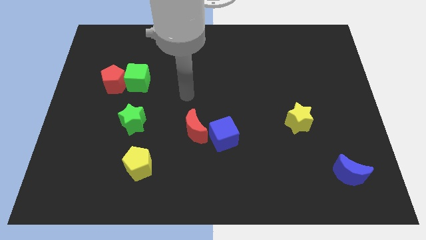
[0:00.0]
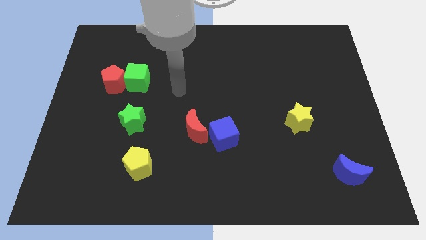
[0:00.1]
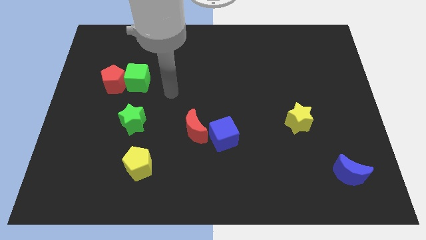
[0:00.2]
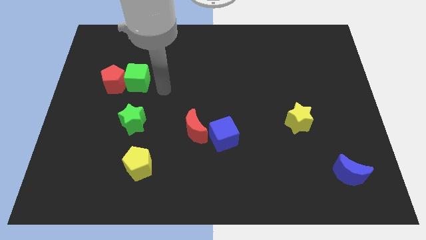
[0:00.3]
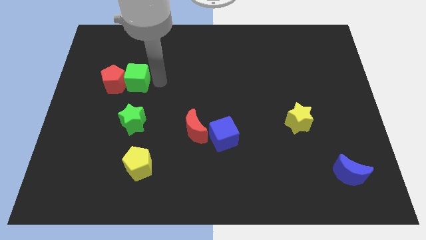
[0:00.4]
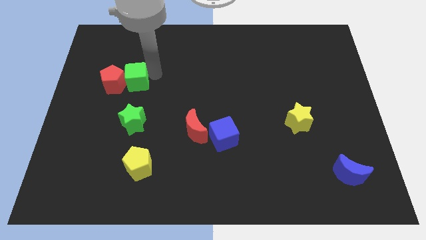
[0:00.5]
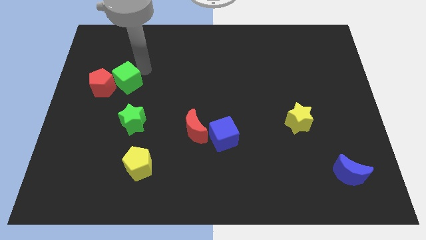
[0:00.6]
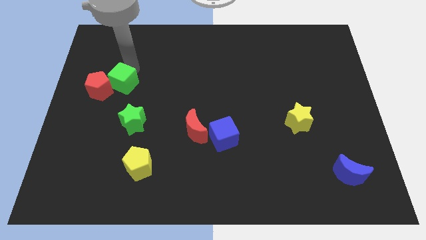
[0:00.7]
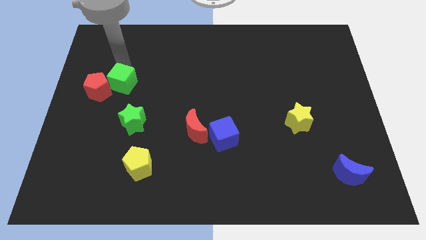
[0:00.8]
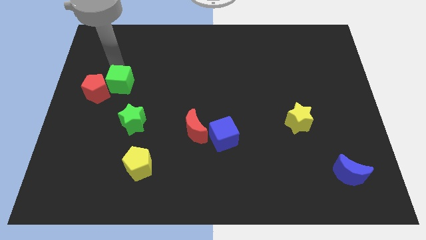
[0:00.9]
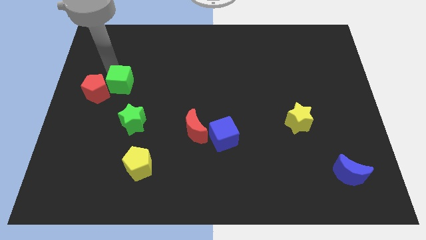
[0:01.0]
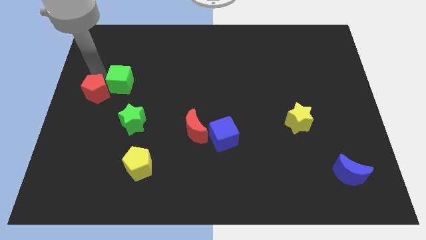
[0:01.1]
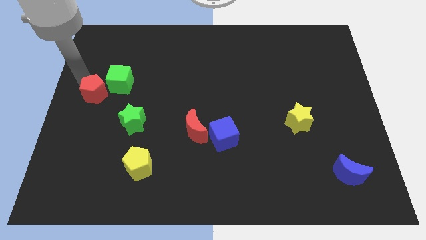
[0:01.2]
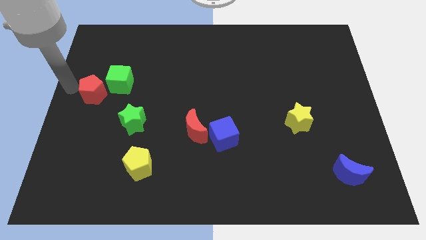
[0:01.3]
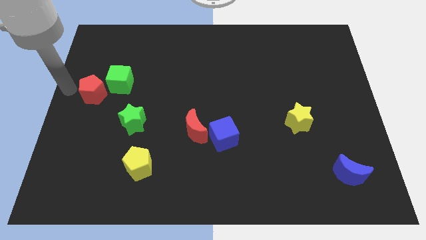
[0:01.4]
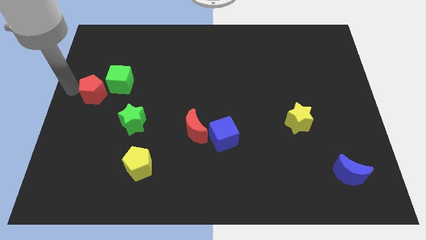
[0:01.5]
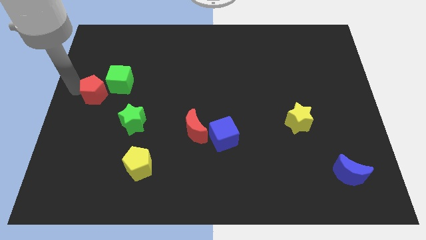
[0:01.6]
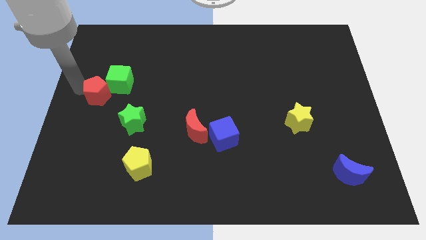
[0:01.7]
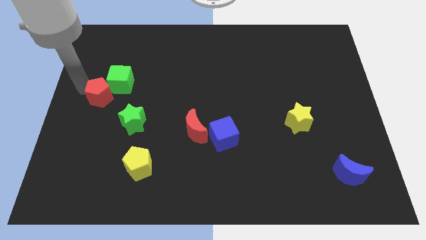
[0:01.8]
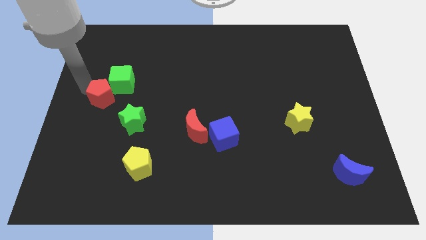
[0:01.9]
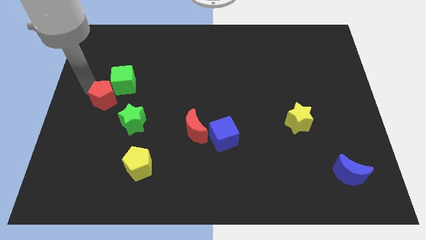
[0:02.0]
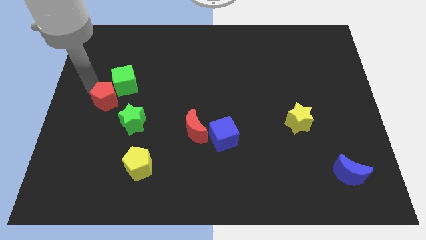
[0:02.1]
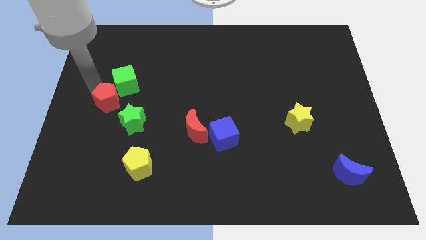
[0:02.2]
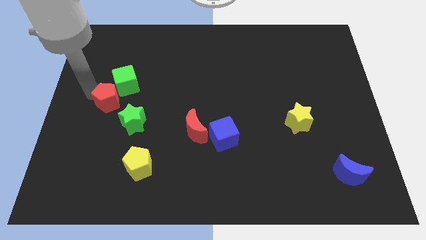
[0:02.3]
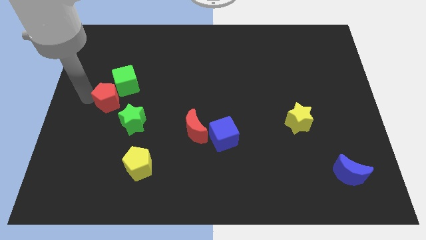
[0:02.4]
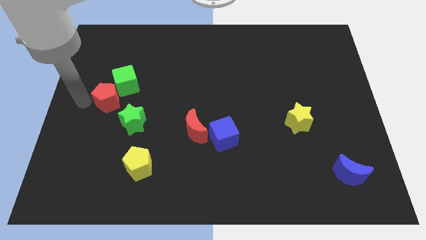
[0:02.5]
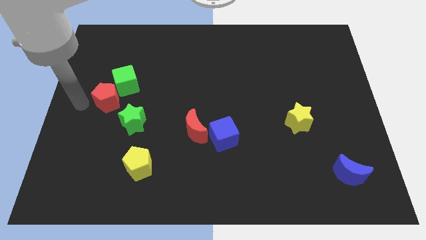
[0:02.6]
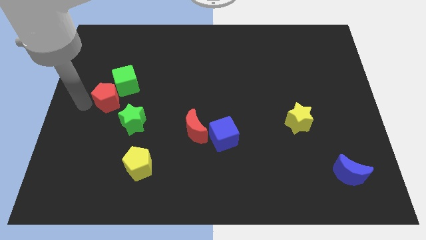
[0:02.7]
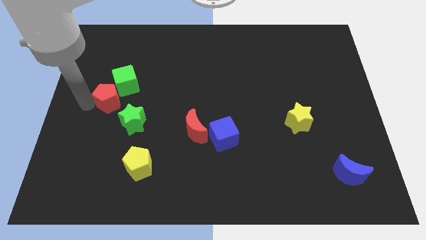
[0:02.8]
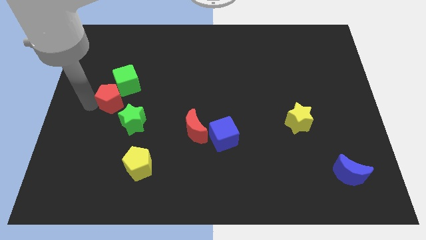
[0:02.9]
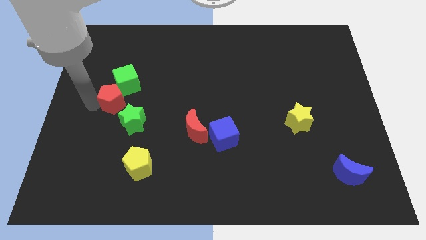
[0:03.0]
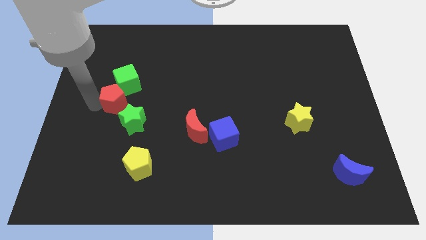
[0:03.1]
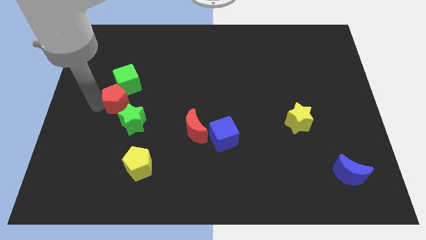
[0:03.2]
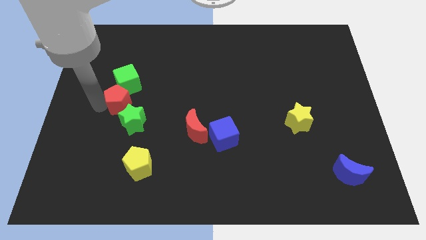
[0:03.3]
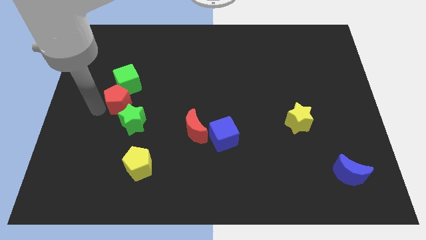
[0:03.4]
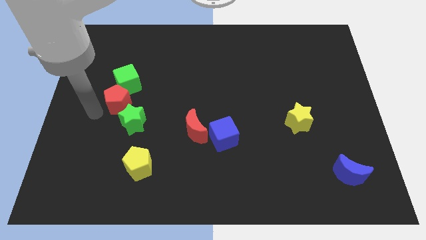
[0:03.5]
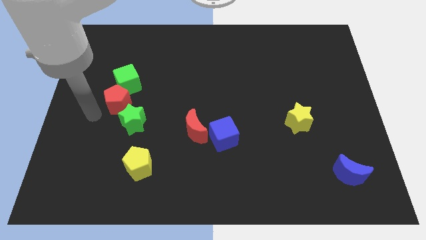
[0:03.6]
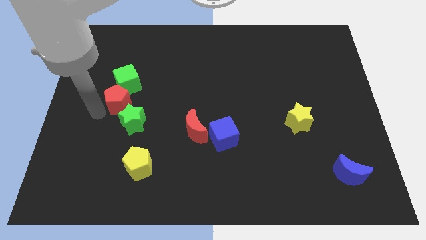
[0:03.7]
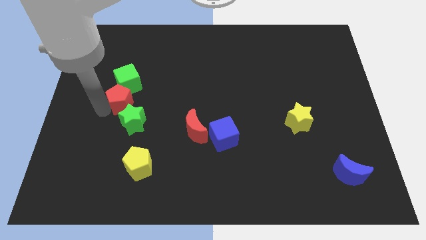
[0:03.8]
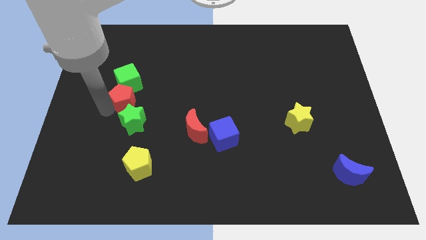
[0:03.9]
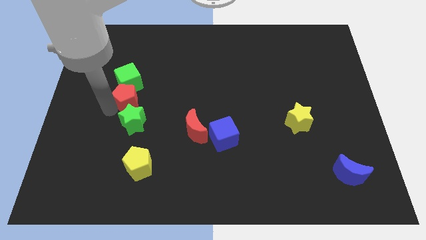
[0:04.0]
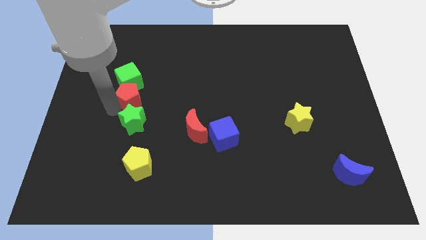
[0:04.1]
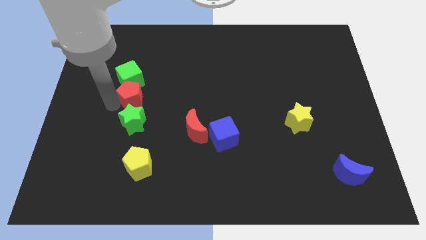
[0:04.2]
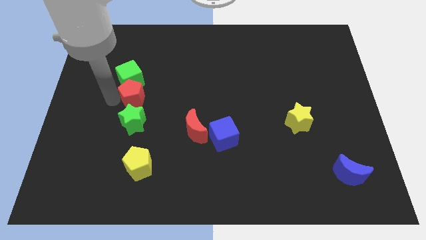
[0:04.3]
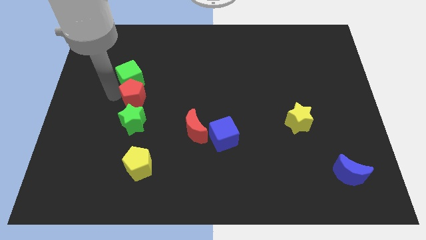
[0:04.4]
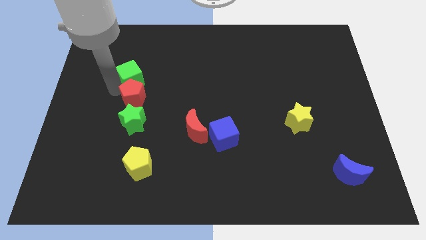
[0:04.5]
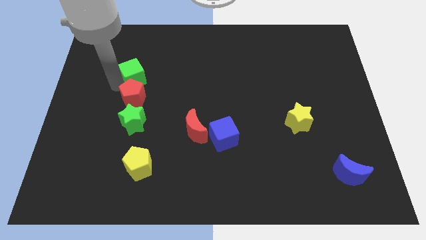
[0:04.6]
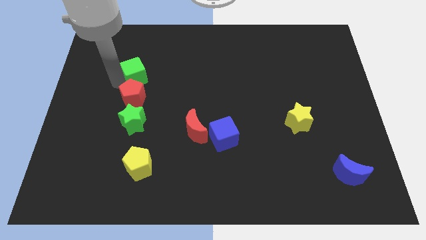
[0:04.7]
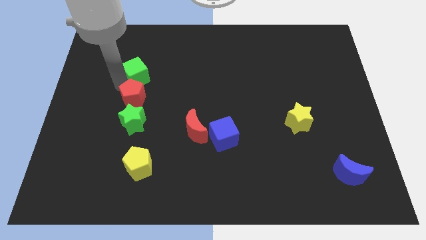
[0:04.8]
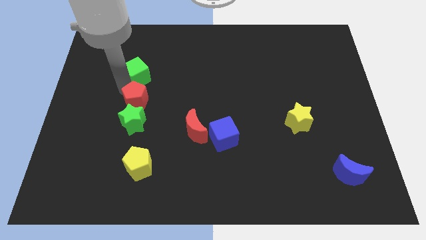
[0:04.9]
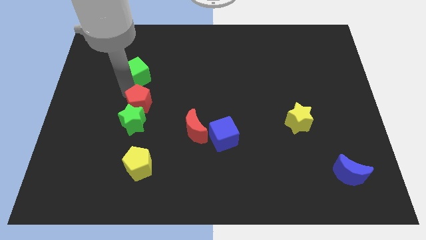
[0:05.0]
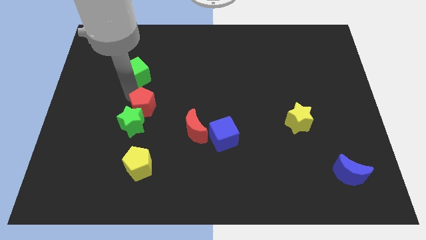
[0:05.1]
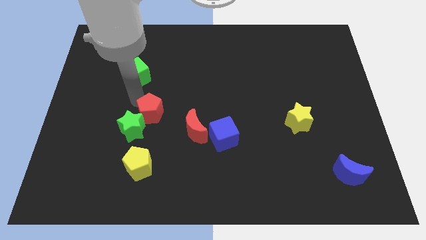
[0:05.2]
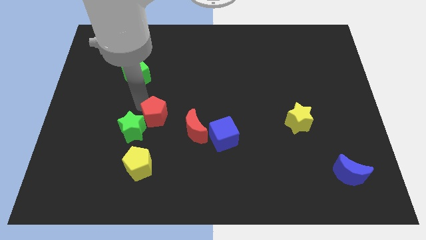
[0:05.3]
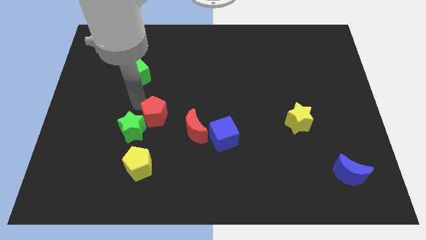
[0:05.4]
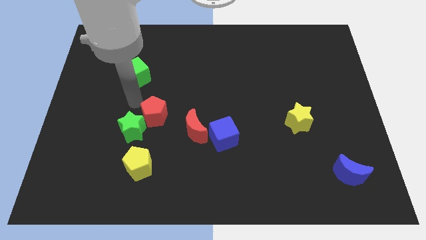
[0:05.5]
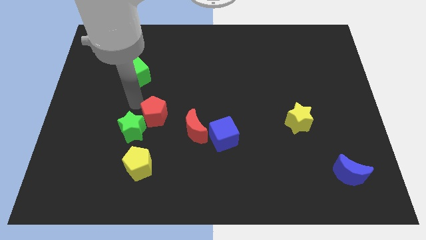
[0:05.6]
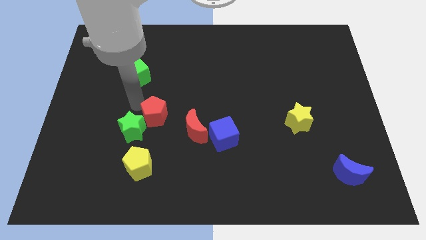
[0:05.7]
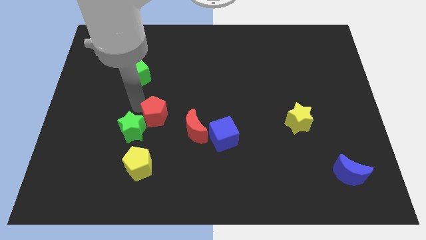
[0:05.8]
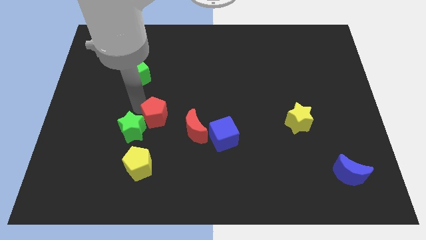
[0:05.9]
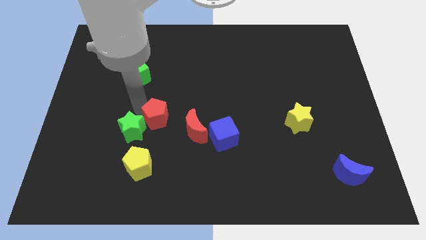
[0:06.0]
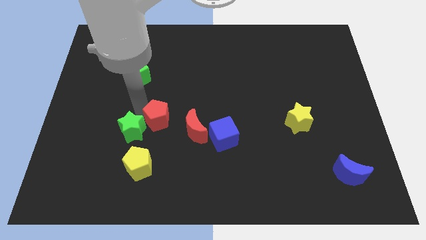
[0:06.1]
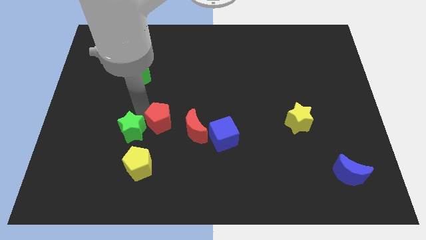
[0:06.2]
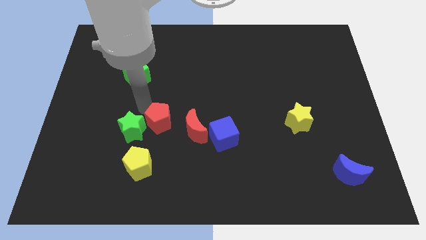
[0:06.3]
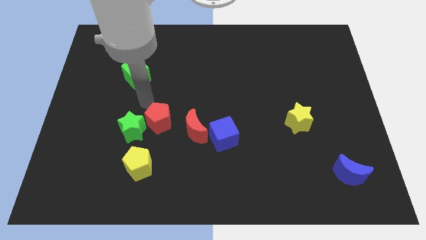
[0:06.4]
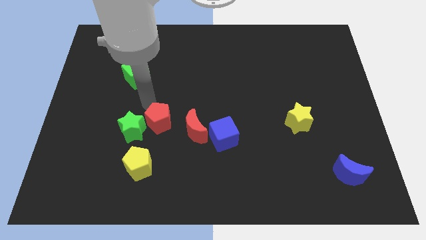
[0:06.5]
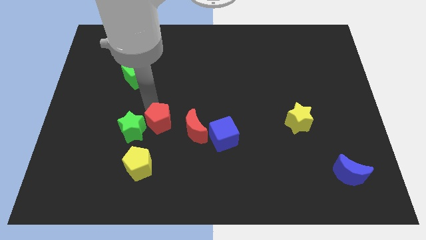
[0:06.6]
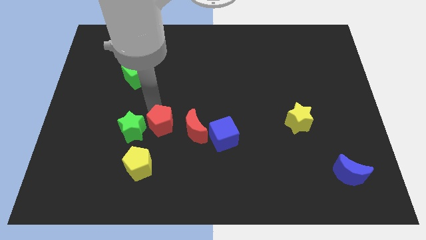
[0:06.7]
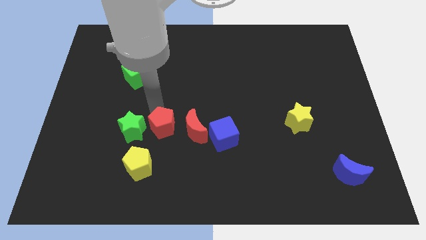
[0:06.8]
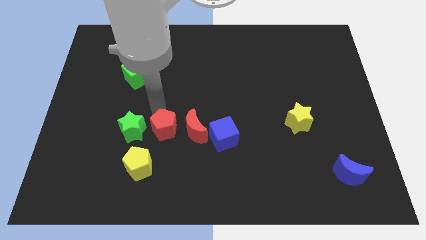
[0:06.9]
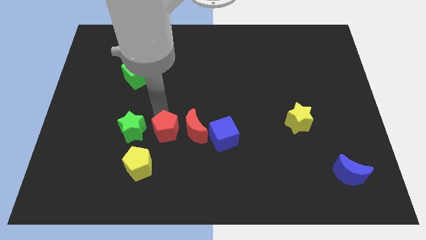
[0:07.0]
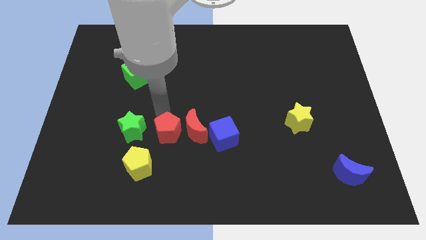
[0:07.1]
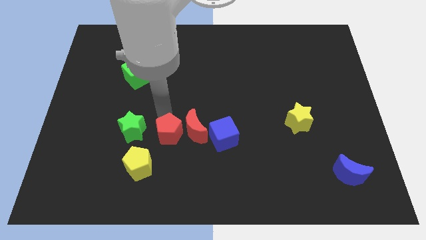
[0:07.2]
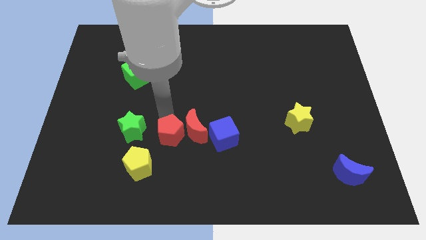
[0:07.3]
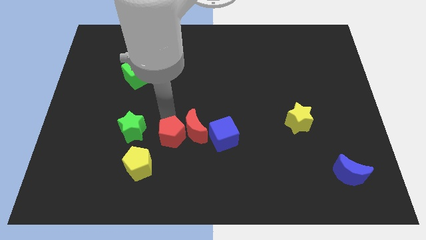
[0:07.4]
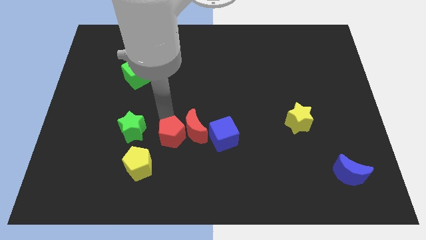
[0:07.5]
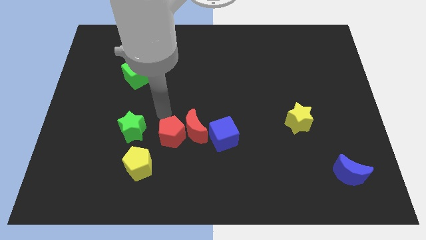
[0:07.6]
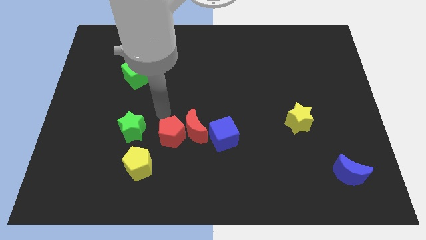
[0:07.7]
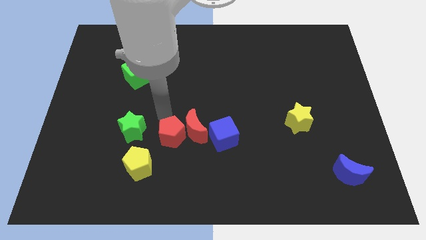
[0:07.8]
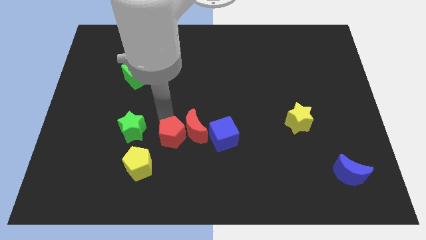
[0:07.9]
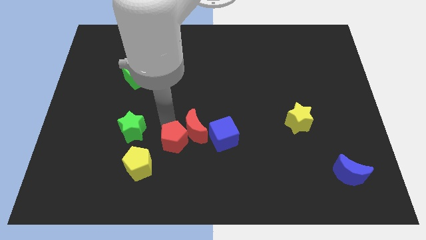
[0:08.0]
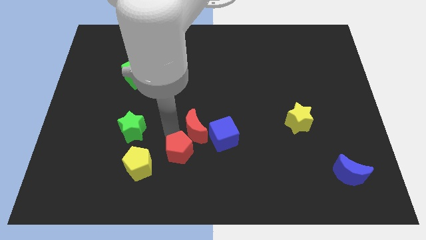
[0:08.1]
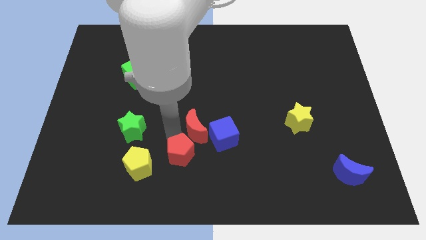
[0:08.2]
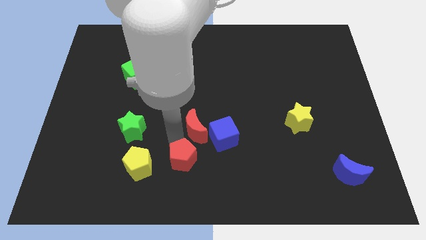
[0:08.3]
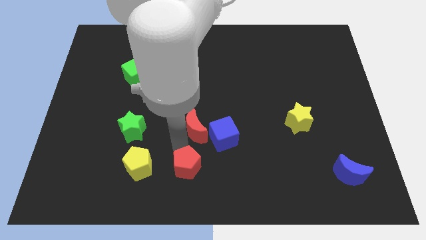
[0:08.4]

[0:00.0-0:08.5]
slide the red pentagon to the bottom
